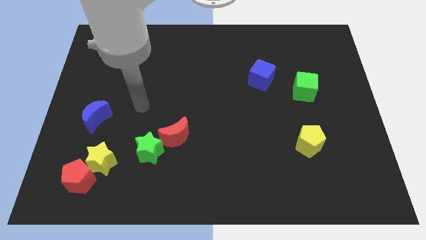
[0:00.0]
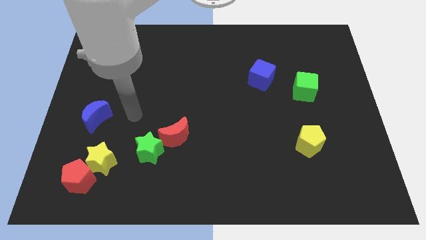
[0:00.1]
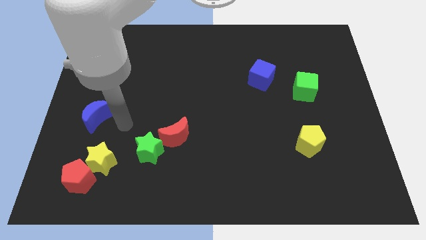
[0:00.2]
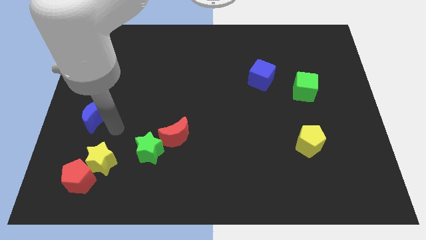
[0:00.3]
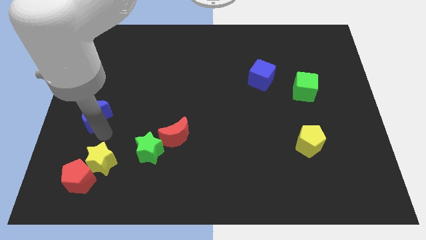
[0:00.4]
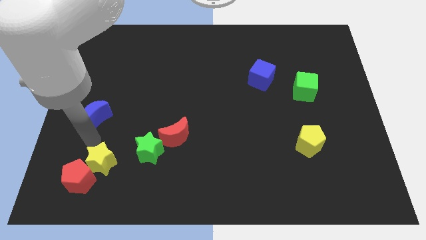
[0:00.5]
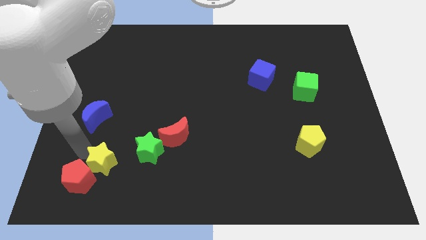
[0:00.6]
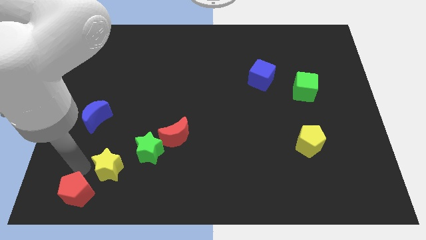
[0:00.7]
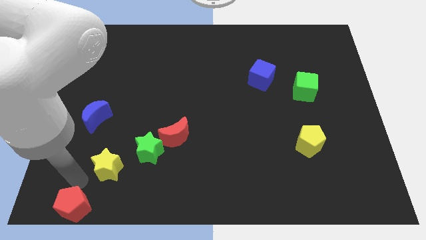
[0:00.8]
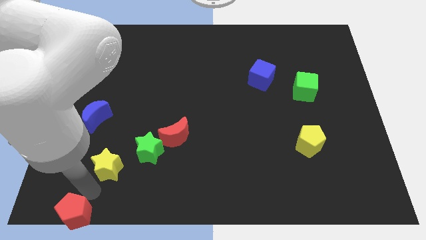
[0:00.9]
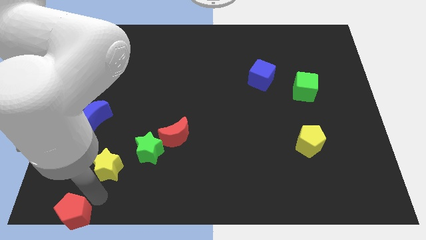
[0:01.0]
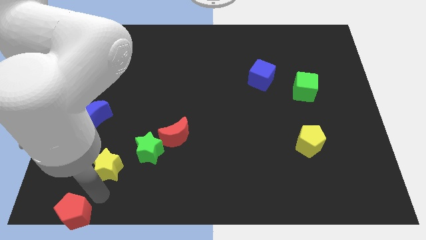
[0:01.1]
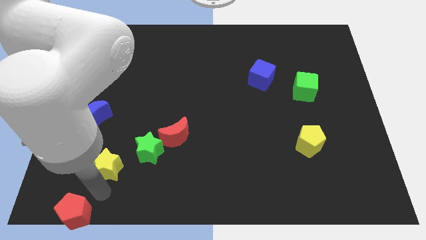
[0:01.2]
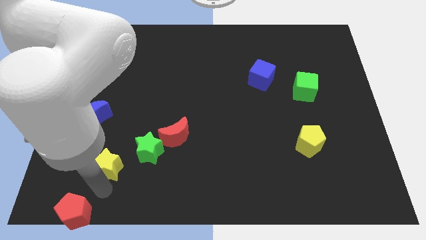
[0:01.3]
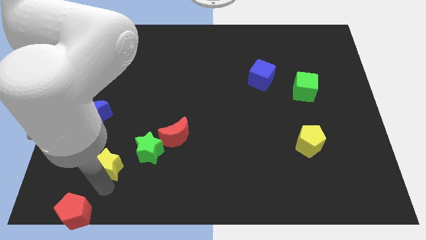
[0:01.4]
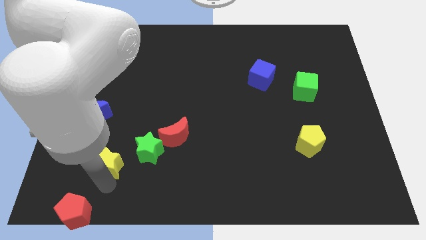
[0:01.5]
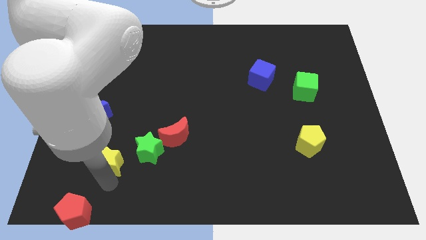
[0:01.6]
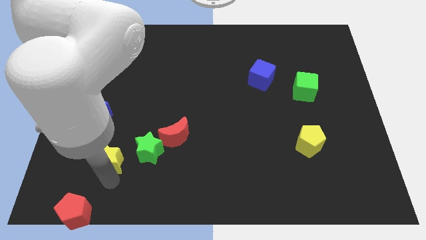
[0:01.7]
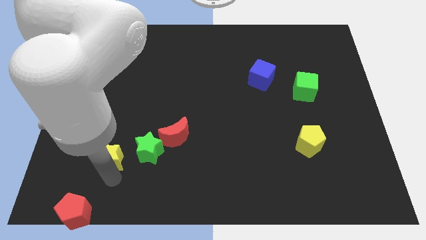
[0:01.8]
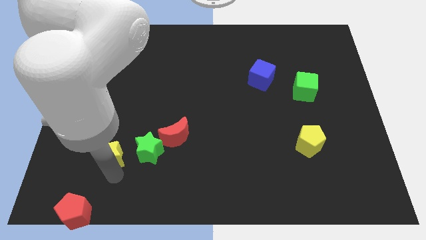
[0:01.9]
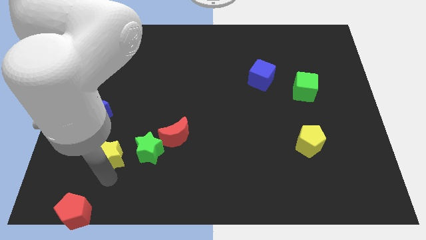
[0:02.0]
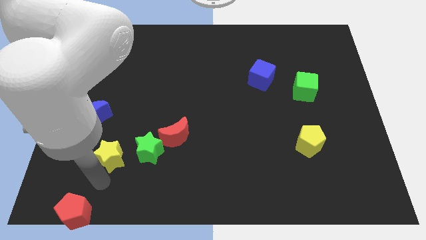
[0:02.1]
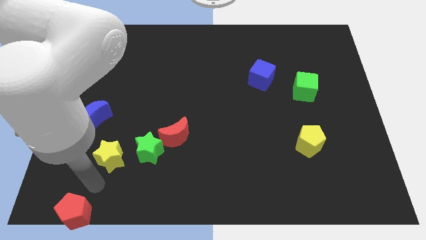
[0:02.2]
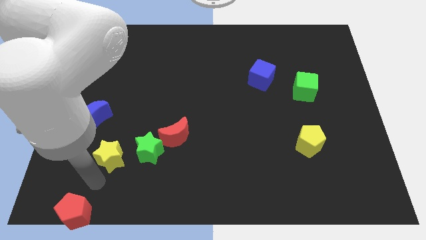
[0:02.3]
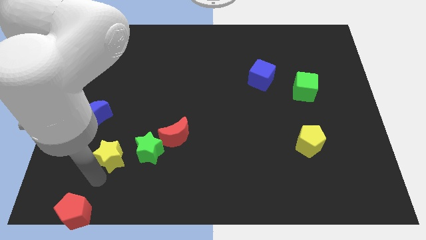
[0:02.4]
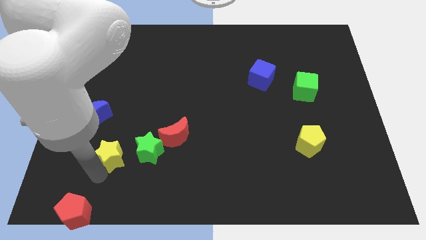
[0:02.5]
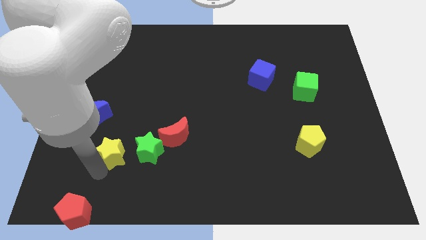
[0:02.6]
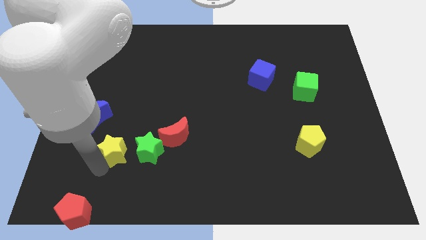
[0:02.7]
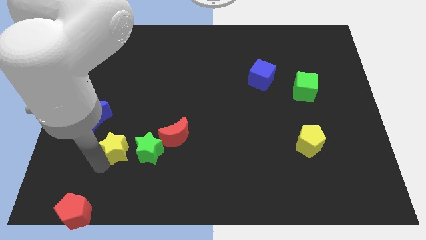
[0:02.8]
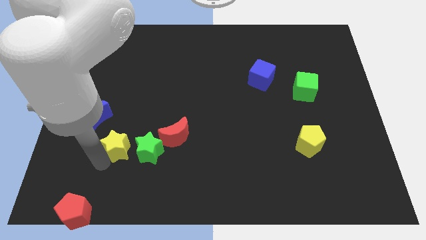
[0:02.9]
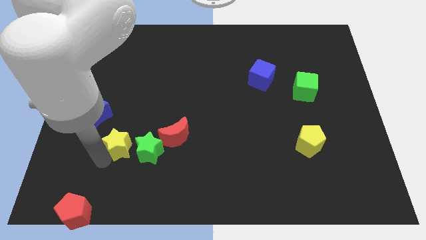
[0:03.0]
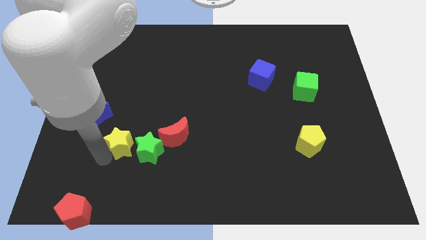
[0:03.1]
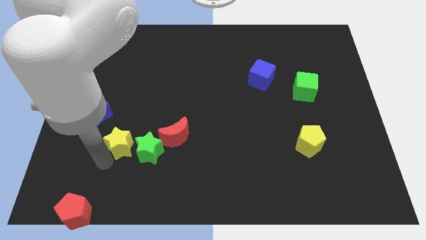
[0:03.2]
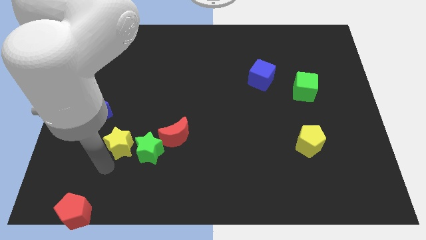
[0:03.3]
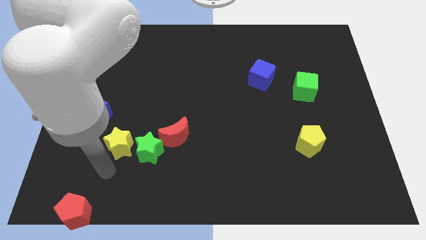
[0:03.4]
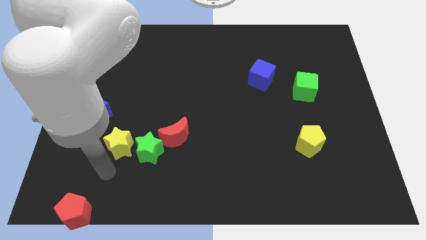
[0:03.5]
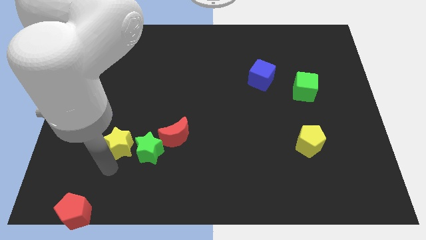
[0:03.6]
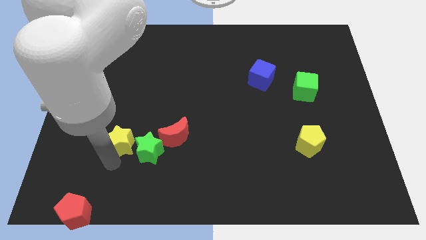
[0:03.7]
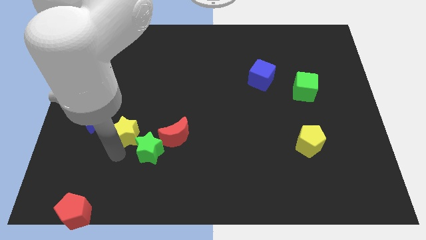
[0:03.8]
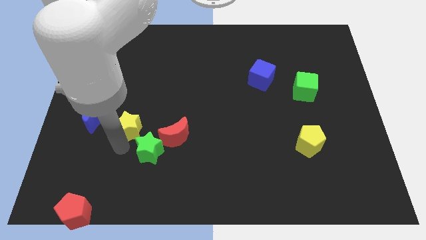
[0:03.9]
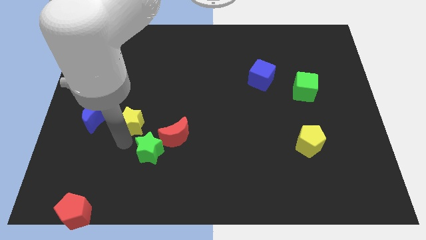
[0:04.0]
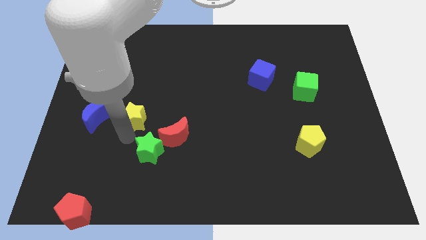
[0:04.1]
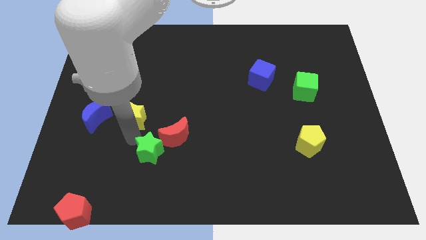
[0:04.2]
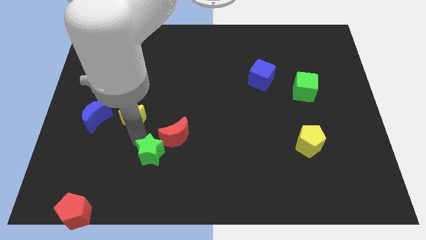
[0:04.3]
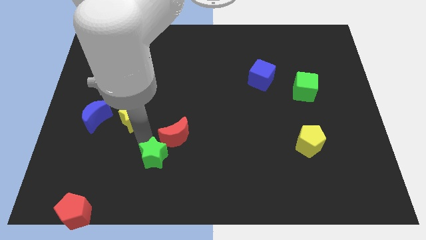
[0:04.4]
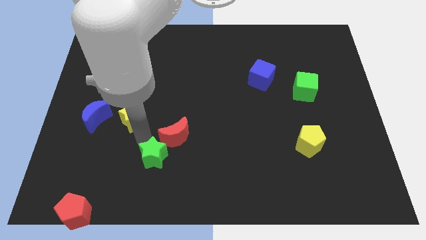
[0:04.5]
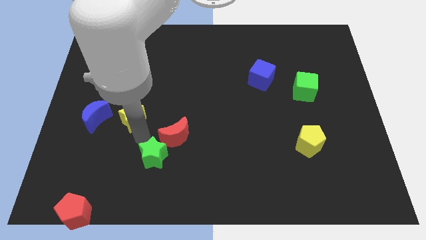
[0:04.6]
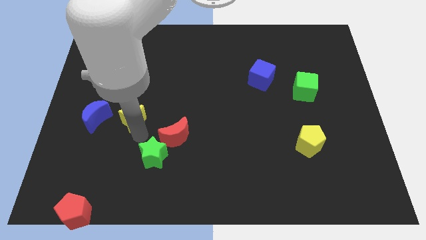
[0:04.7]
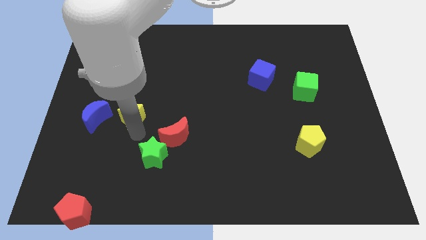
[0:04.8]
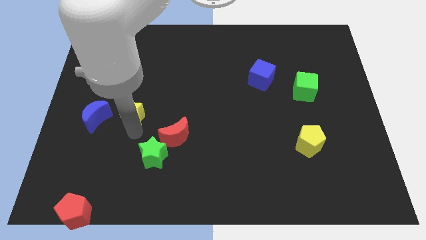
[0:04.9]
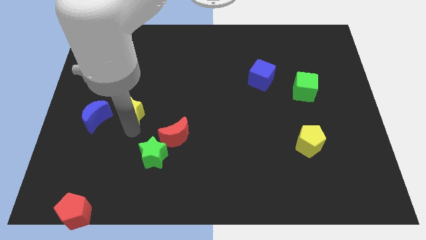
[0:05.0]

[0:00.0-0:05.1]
push the yellow star diagonally up and to the right of the blue moon

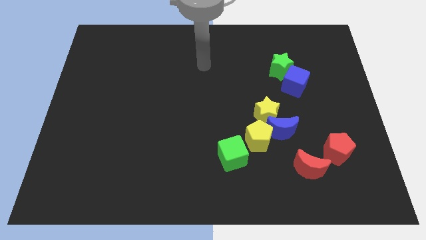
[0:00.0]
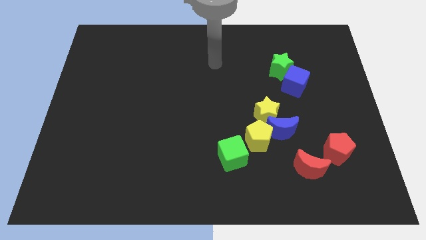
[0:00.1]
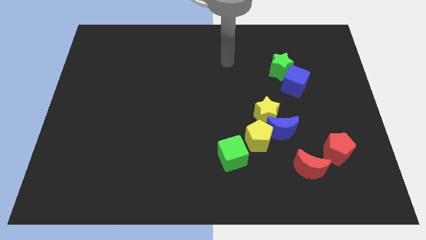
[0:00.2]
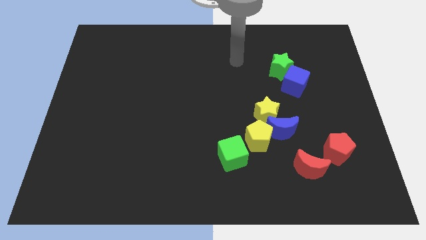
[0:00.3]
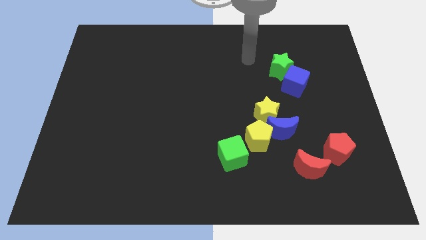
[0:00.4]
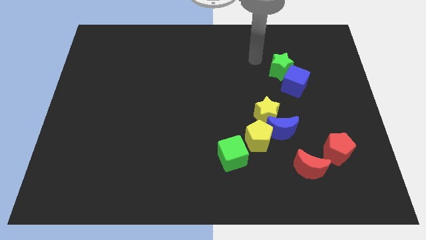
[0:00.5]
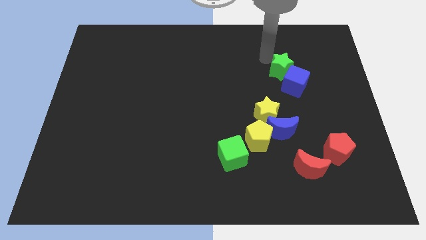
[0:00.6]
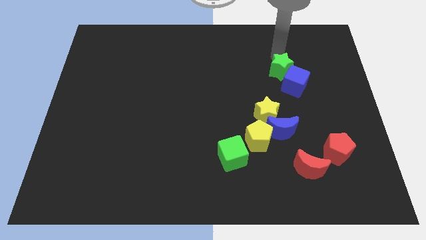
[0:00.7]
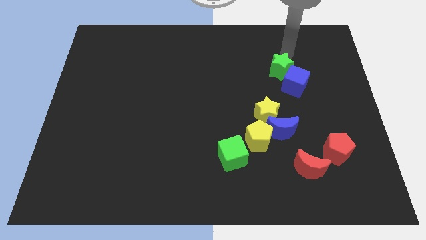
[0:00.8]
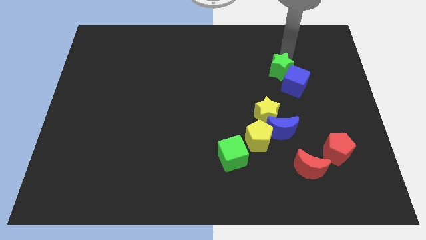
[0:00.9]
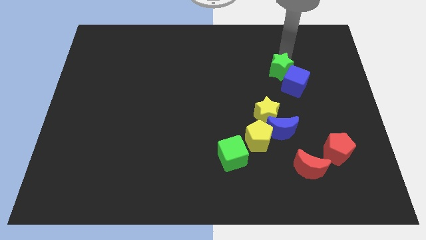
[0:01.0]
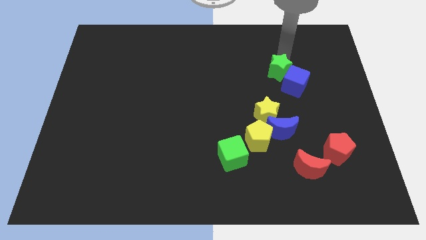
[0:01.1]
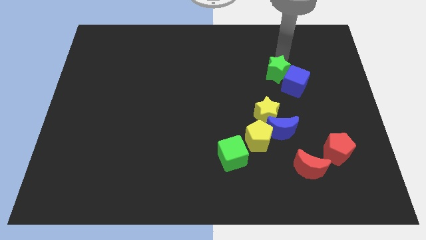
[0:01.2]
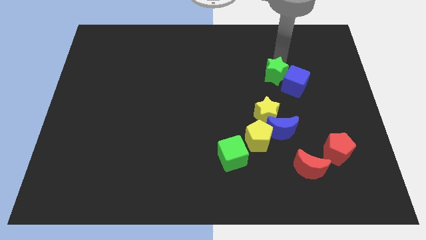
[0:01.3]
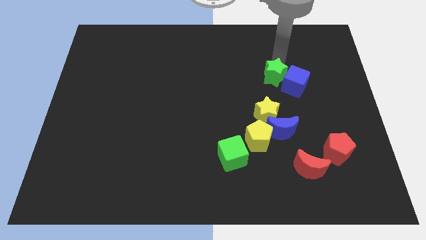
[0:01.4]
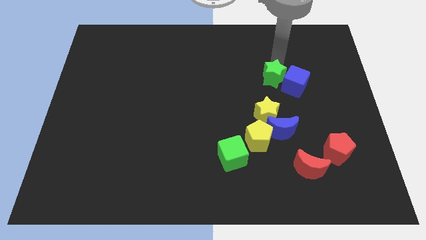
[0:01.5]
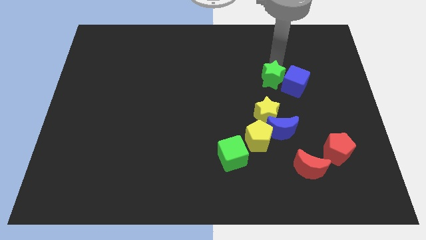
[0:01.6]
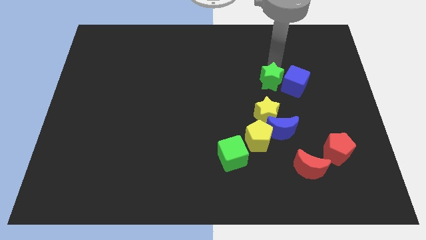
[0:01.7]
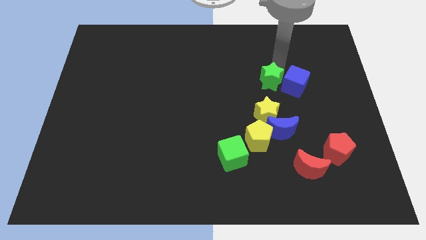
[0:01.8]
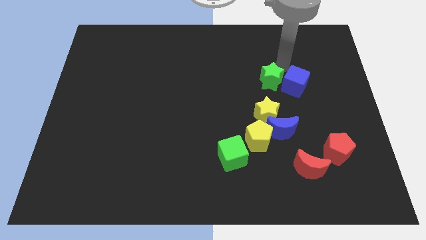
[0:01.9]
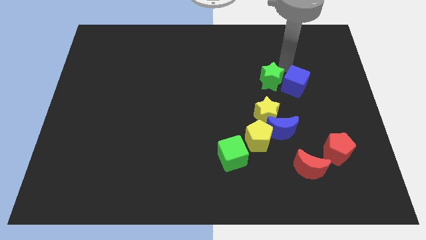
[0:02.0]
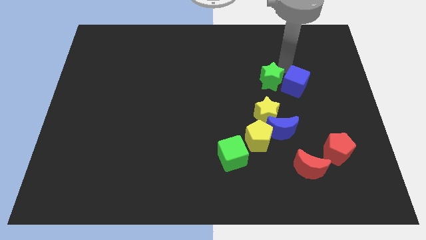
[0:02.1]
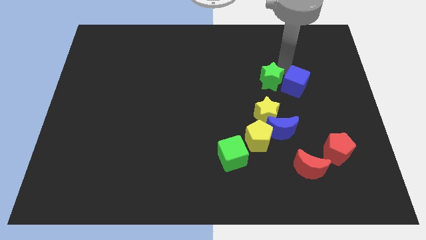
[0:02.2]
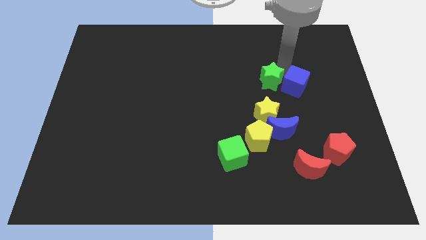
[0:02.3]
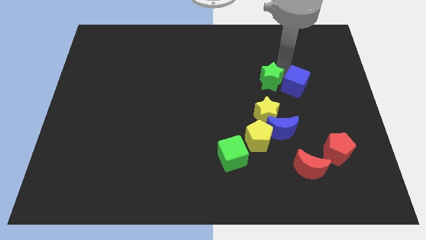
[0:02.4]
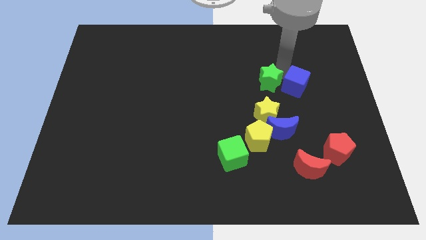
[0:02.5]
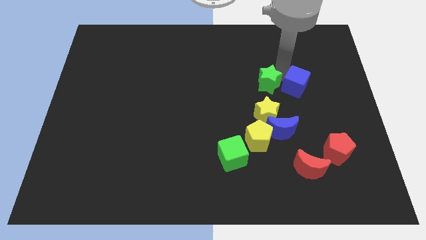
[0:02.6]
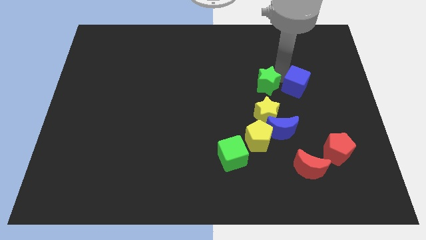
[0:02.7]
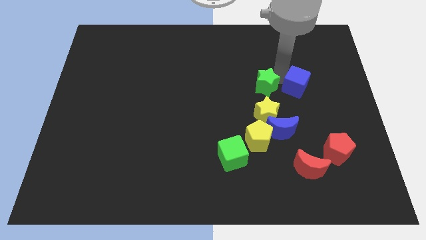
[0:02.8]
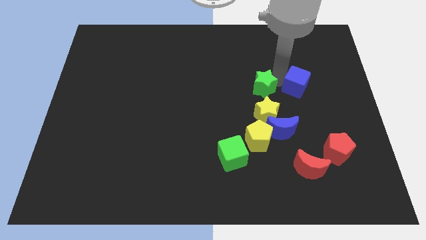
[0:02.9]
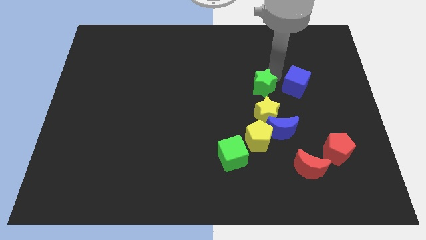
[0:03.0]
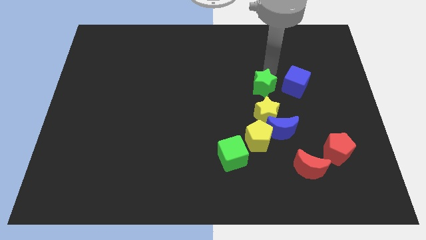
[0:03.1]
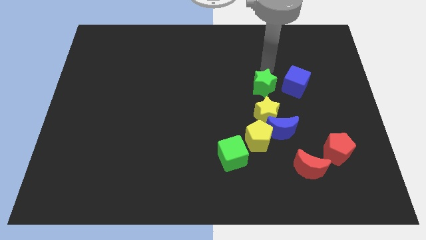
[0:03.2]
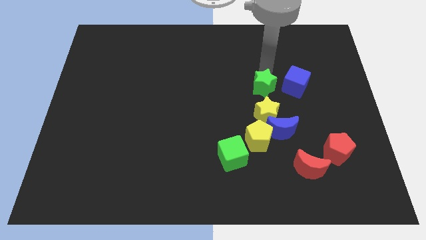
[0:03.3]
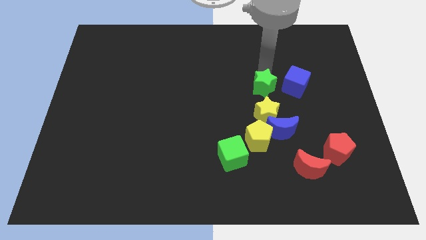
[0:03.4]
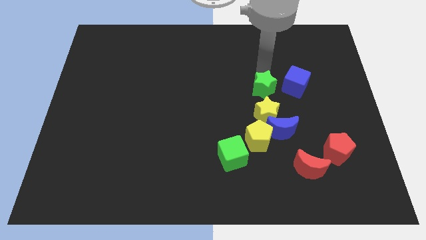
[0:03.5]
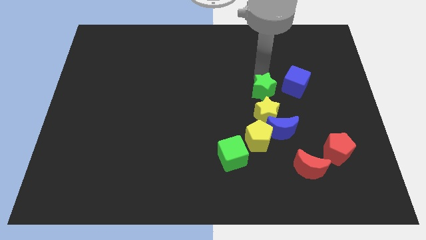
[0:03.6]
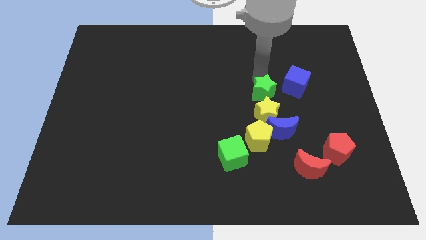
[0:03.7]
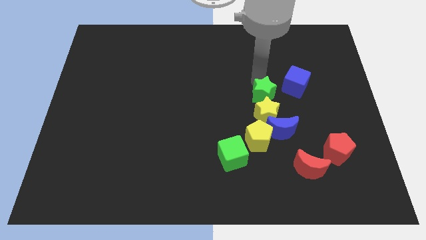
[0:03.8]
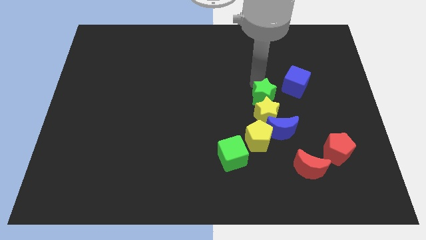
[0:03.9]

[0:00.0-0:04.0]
put the green star to the top left side of the blue moon
